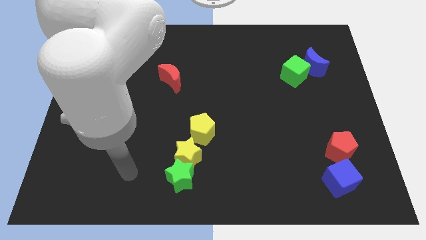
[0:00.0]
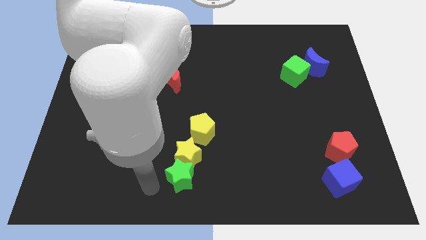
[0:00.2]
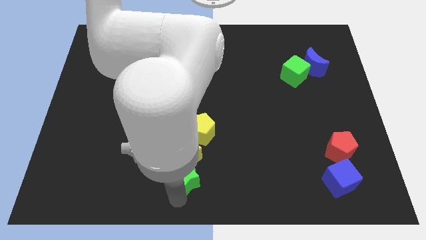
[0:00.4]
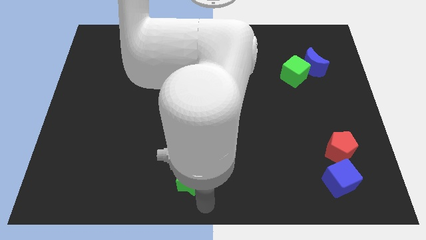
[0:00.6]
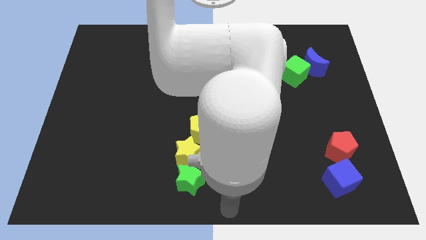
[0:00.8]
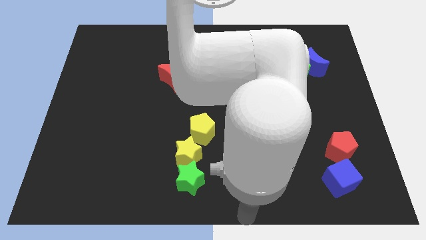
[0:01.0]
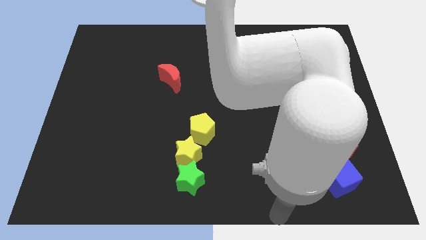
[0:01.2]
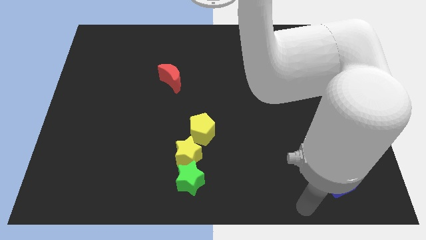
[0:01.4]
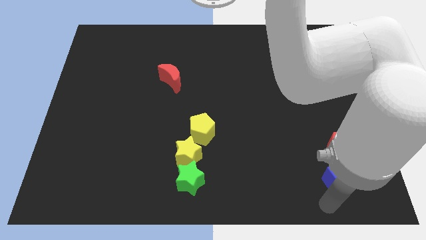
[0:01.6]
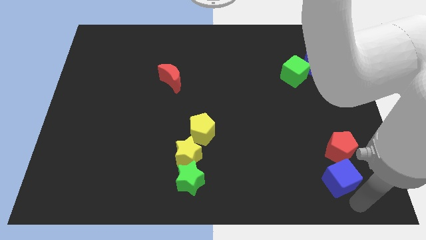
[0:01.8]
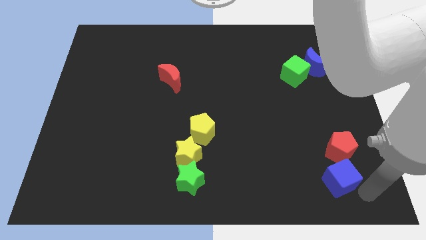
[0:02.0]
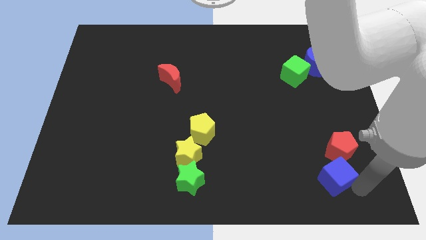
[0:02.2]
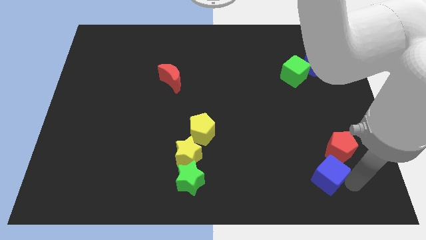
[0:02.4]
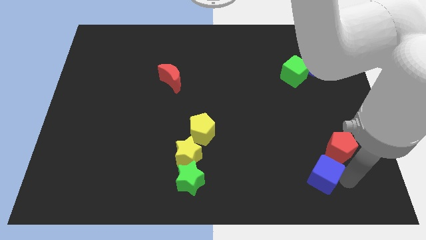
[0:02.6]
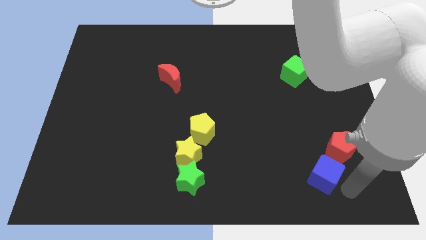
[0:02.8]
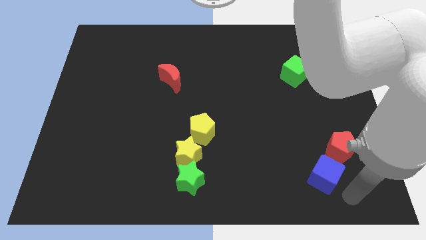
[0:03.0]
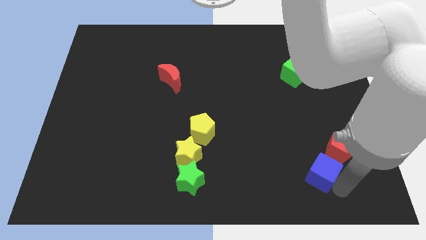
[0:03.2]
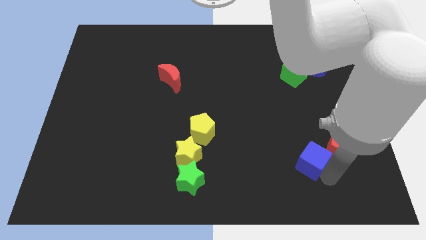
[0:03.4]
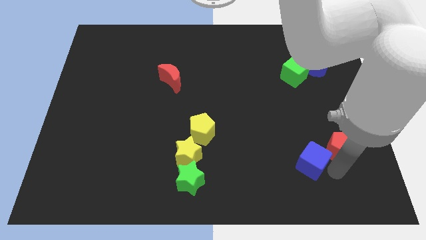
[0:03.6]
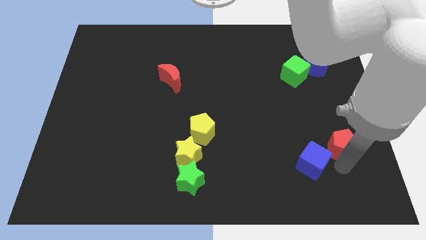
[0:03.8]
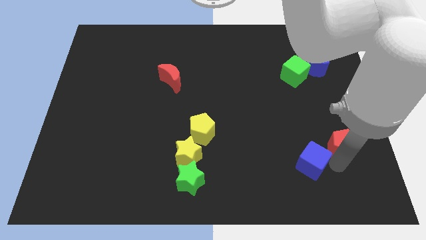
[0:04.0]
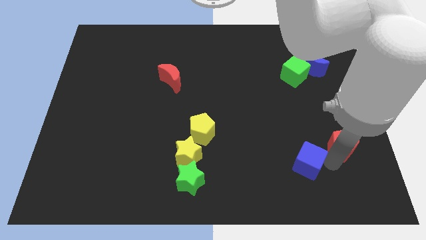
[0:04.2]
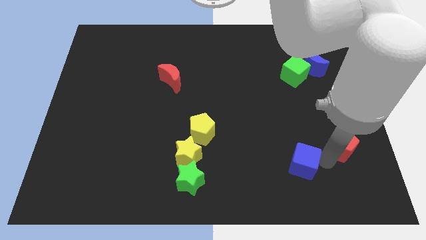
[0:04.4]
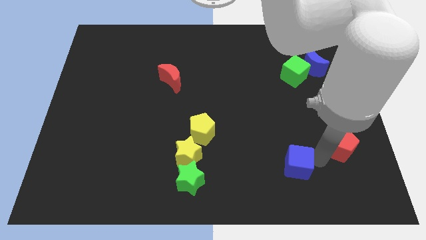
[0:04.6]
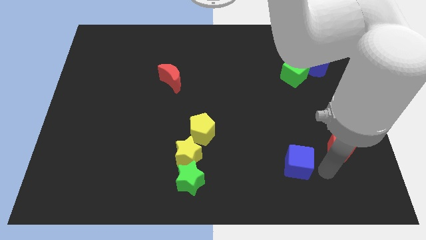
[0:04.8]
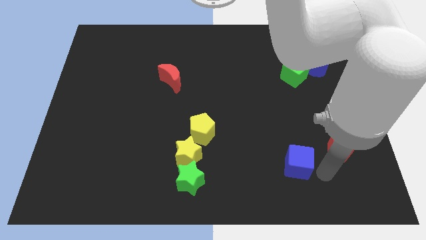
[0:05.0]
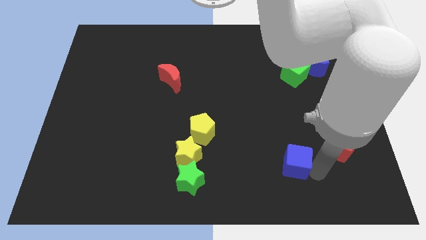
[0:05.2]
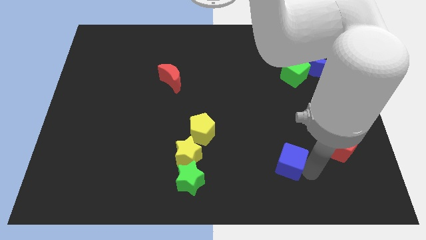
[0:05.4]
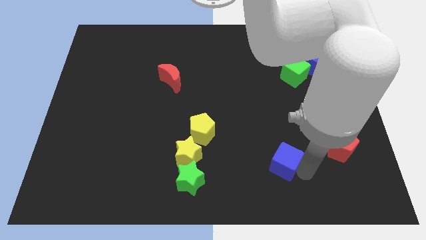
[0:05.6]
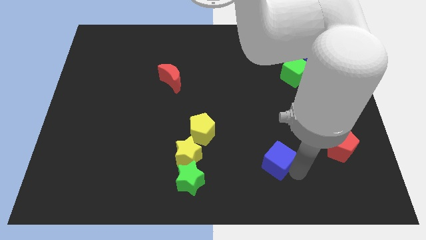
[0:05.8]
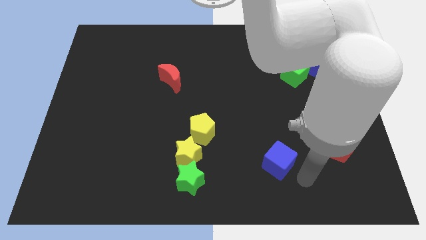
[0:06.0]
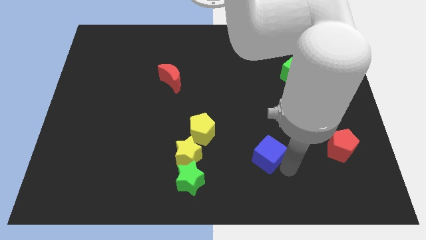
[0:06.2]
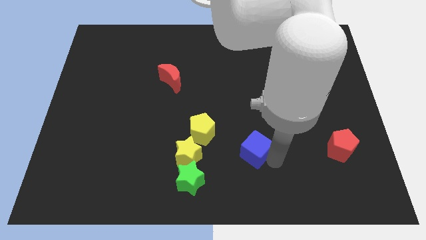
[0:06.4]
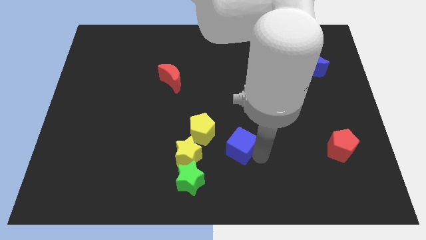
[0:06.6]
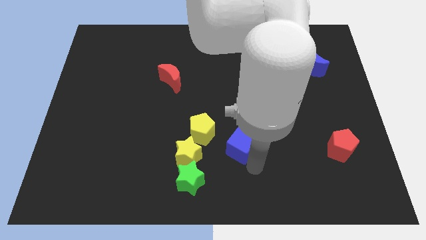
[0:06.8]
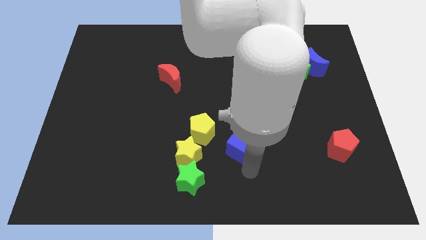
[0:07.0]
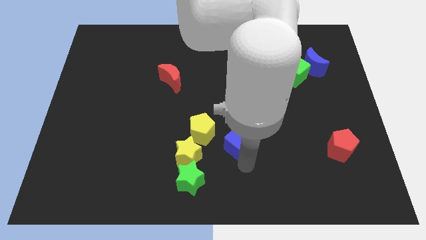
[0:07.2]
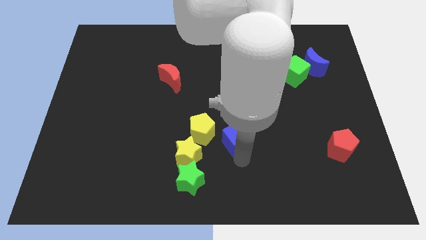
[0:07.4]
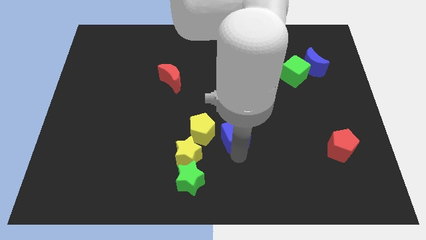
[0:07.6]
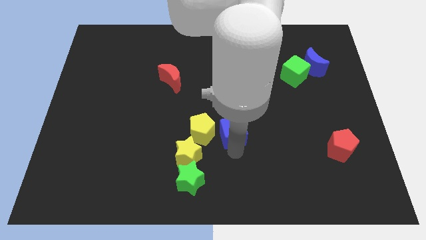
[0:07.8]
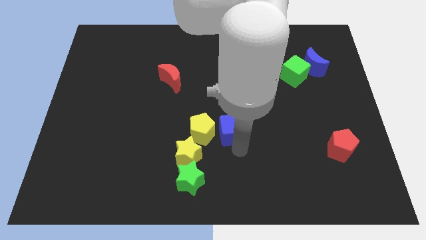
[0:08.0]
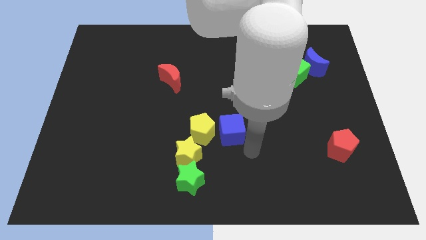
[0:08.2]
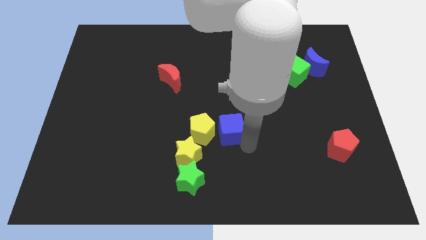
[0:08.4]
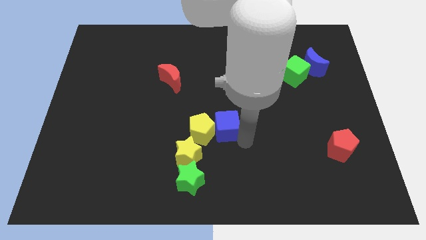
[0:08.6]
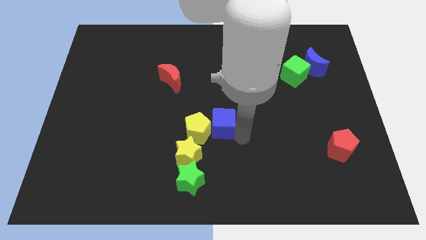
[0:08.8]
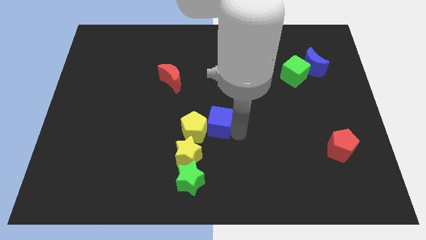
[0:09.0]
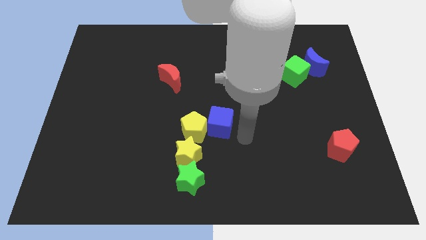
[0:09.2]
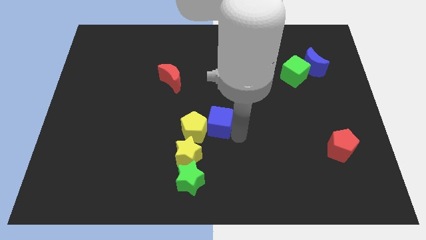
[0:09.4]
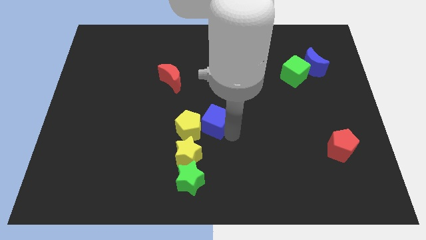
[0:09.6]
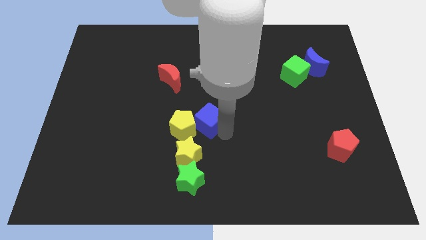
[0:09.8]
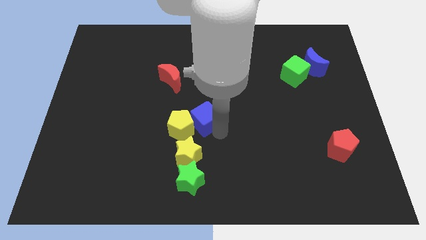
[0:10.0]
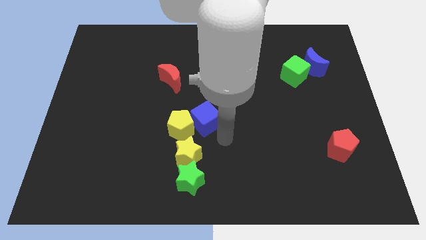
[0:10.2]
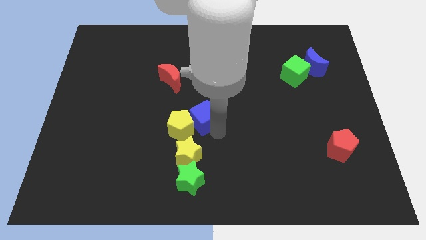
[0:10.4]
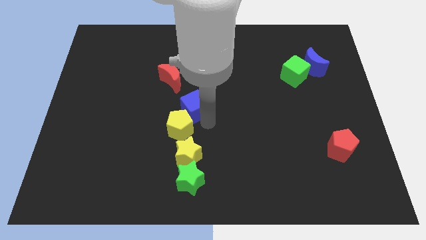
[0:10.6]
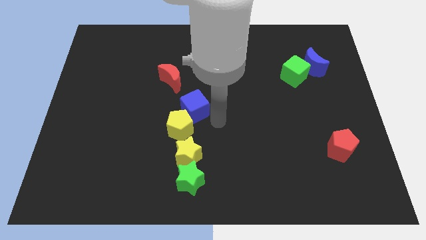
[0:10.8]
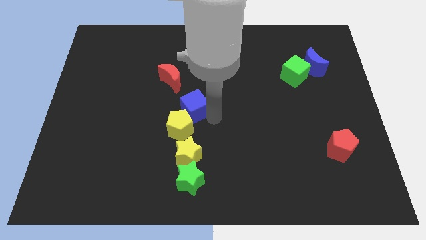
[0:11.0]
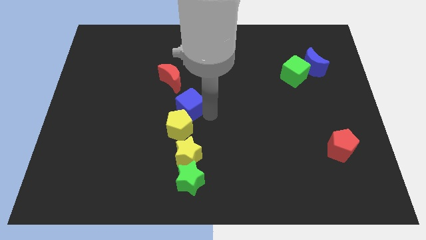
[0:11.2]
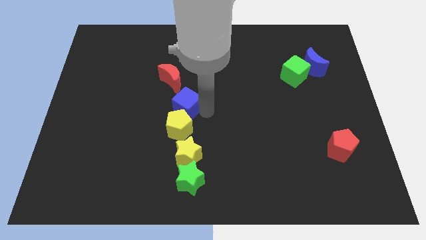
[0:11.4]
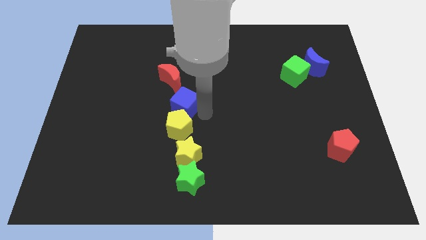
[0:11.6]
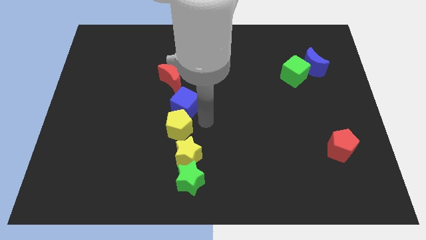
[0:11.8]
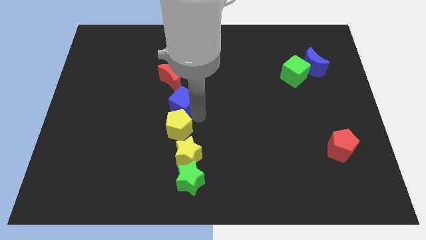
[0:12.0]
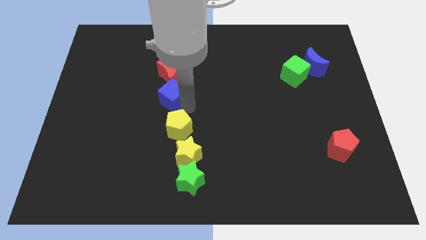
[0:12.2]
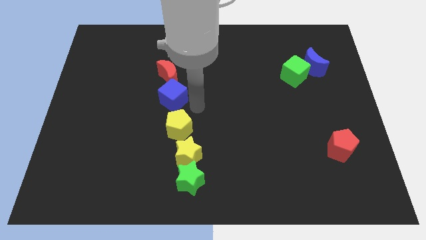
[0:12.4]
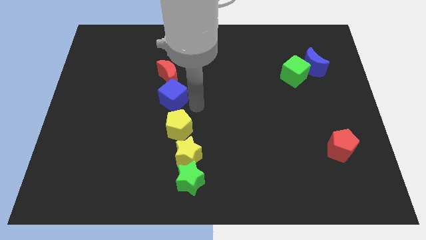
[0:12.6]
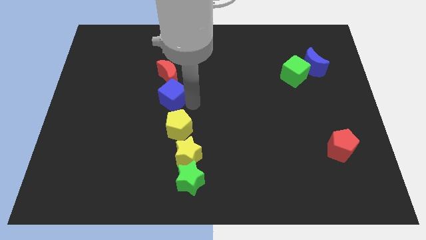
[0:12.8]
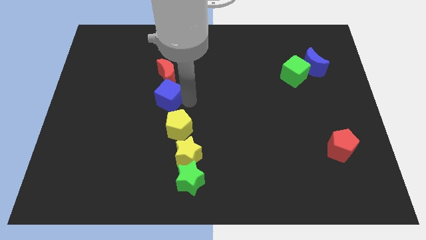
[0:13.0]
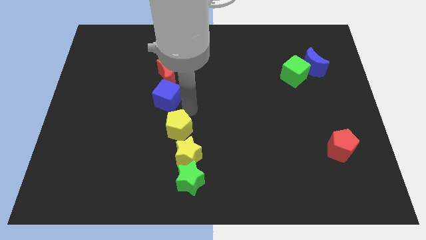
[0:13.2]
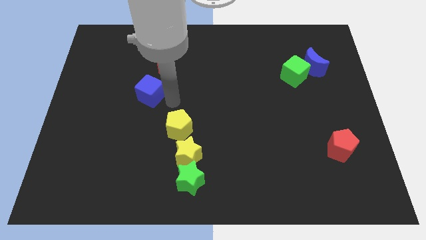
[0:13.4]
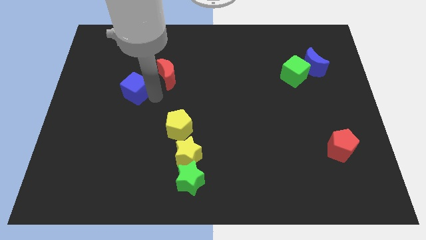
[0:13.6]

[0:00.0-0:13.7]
put the blue cube just left of the red moon

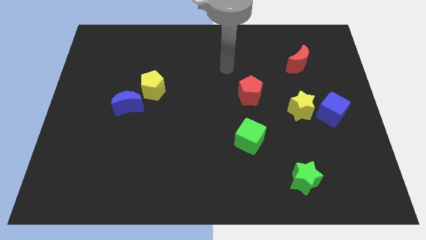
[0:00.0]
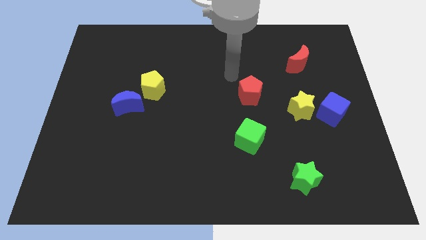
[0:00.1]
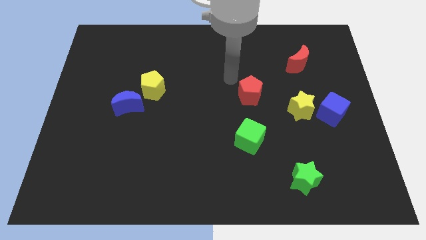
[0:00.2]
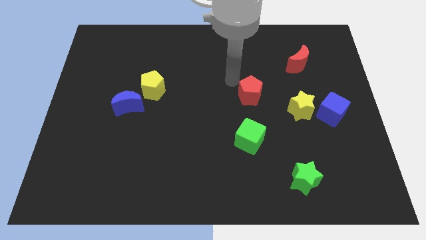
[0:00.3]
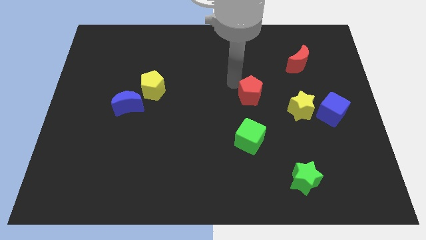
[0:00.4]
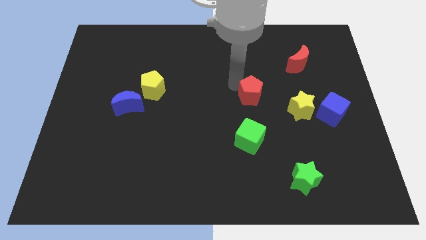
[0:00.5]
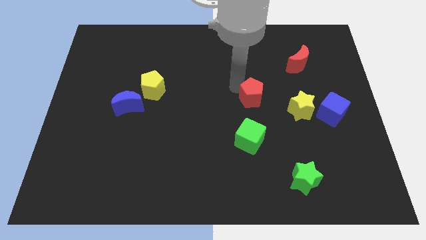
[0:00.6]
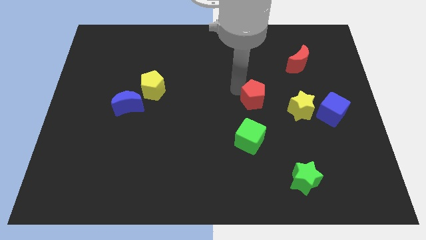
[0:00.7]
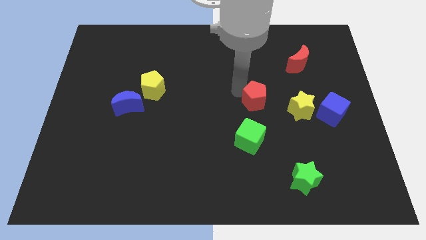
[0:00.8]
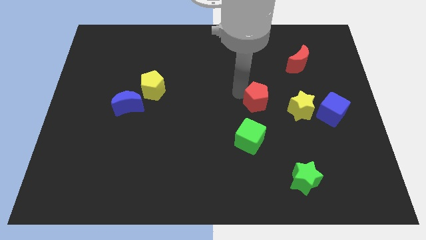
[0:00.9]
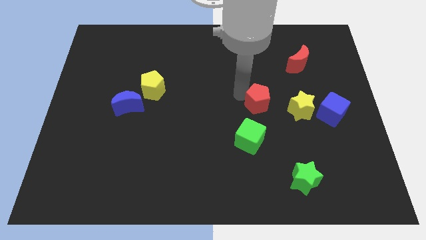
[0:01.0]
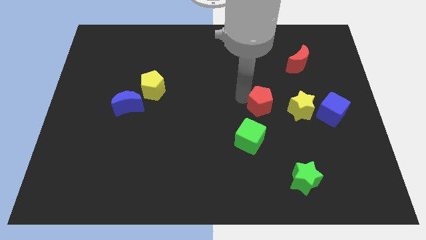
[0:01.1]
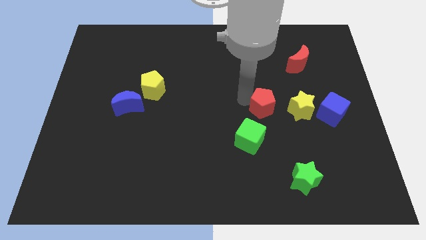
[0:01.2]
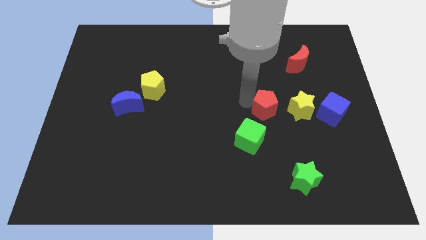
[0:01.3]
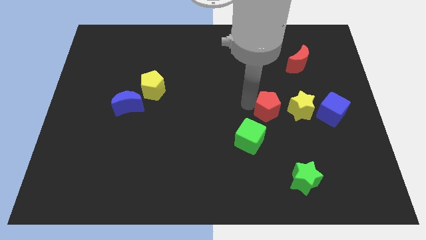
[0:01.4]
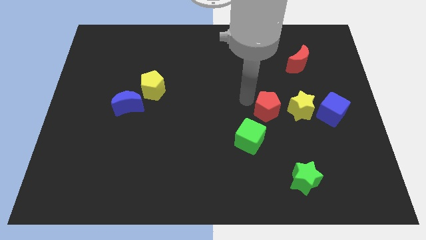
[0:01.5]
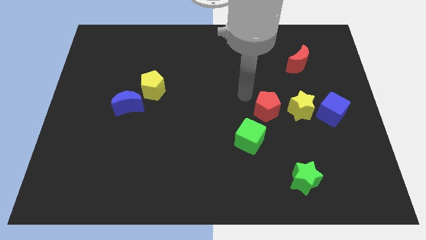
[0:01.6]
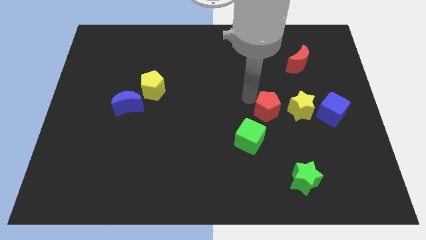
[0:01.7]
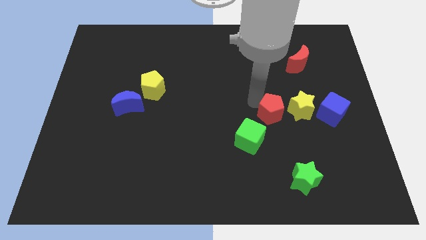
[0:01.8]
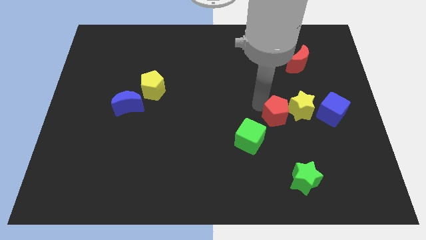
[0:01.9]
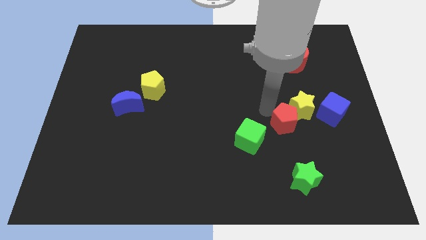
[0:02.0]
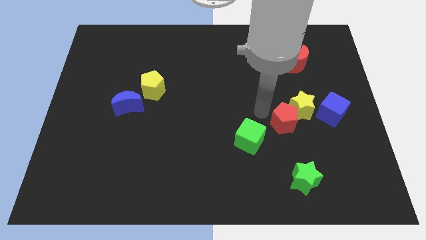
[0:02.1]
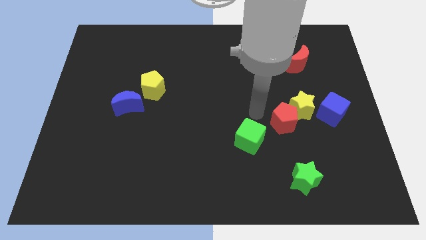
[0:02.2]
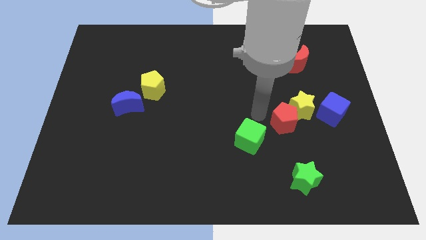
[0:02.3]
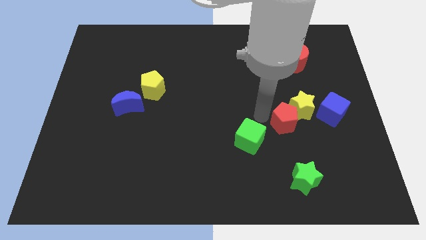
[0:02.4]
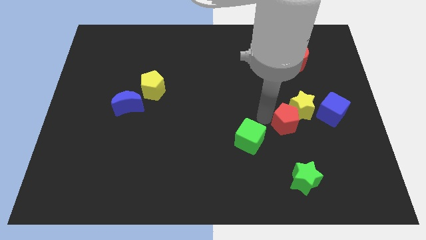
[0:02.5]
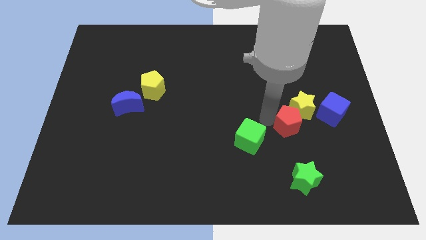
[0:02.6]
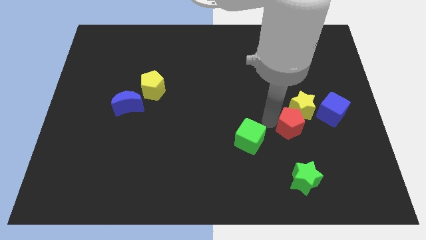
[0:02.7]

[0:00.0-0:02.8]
move the red pentagon diagonally down and to the left of the blue cube
